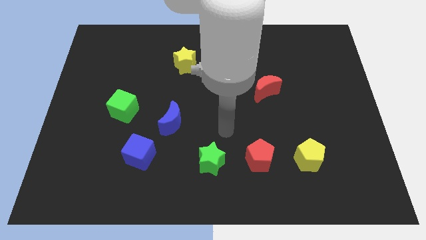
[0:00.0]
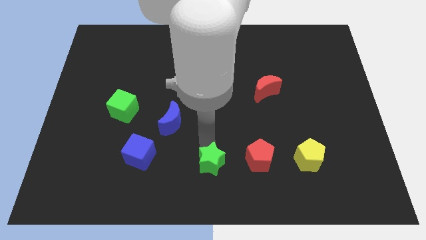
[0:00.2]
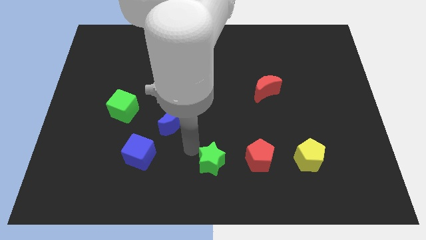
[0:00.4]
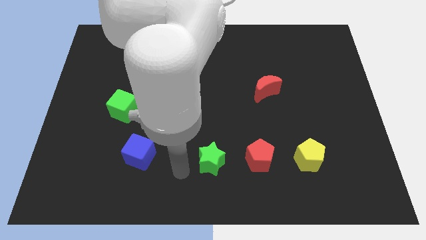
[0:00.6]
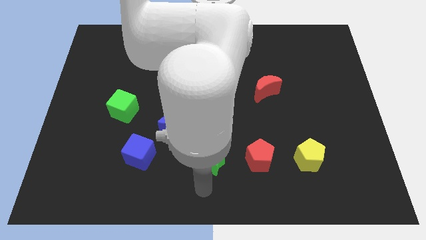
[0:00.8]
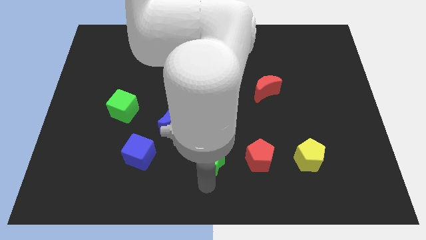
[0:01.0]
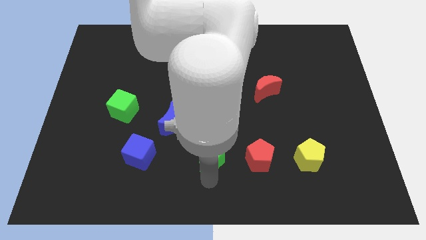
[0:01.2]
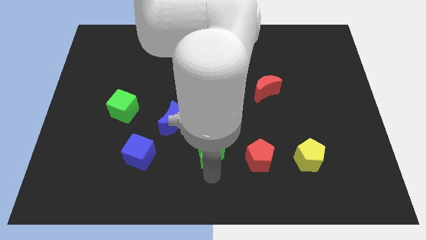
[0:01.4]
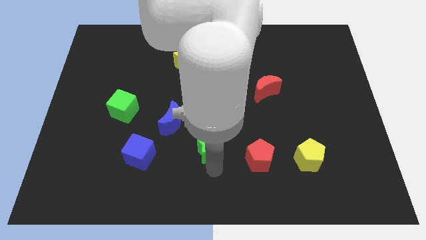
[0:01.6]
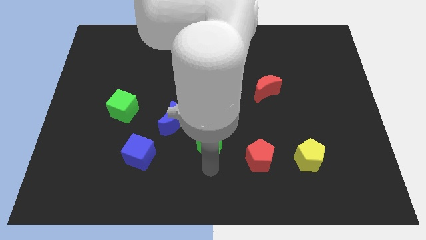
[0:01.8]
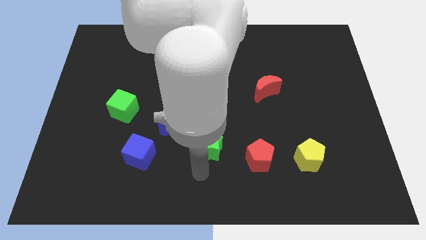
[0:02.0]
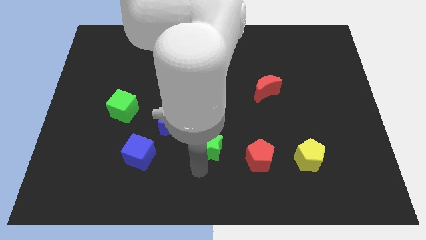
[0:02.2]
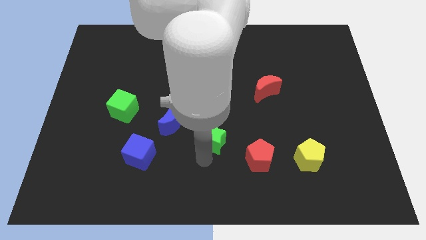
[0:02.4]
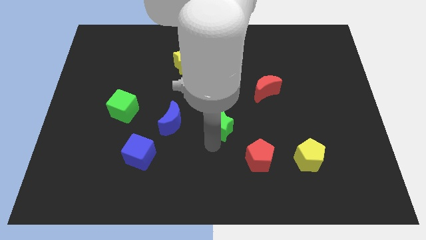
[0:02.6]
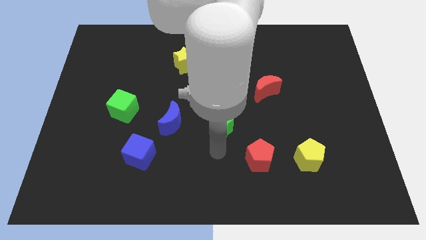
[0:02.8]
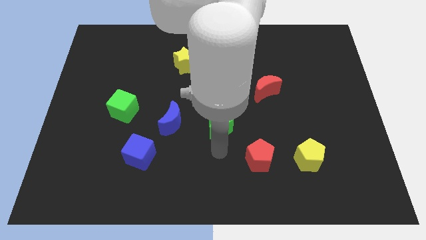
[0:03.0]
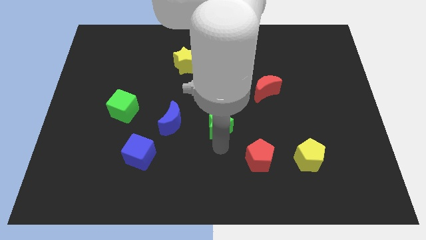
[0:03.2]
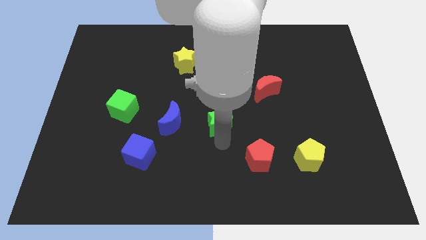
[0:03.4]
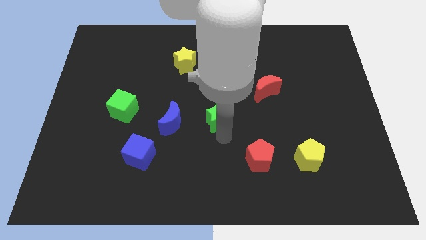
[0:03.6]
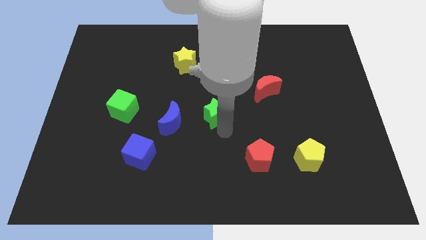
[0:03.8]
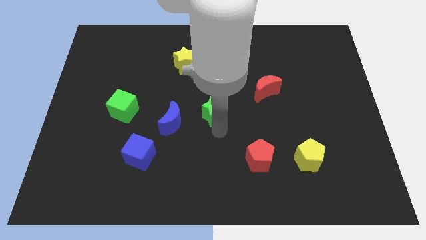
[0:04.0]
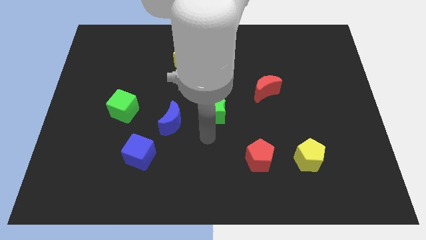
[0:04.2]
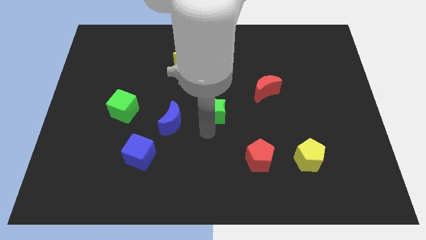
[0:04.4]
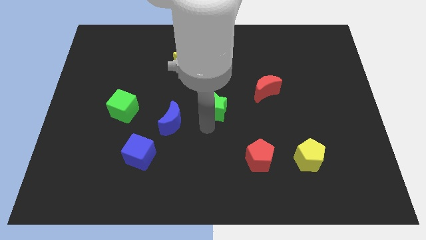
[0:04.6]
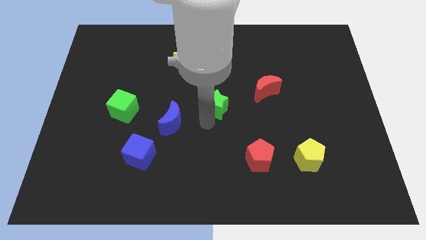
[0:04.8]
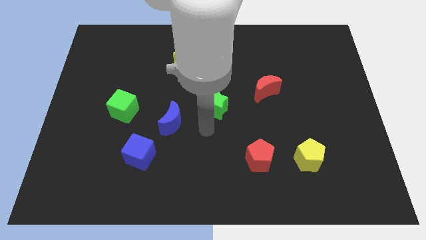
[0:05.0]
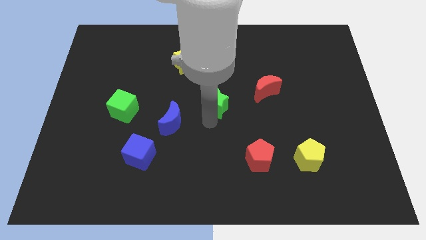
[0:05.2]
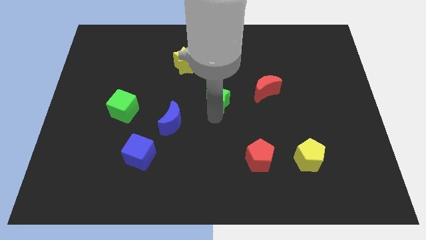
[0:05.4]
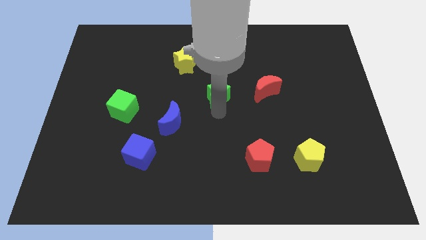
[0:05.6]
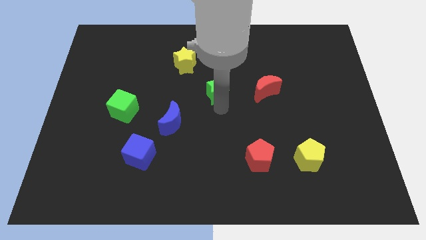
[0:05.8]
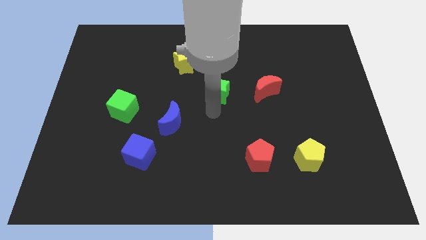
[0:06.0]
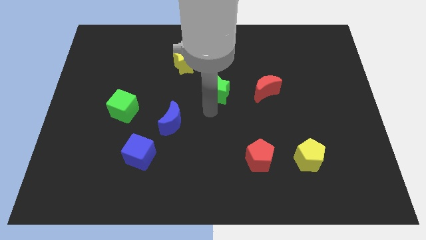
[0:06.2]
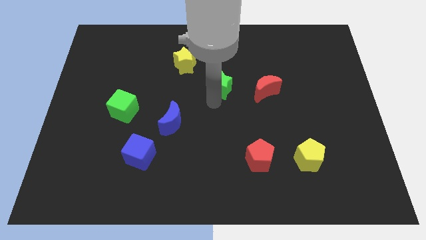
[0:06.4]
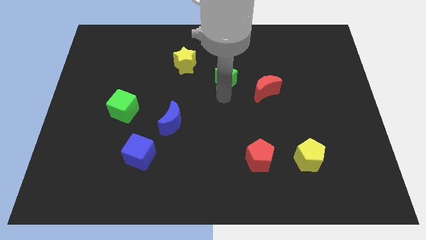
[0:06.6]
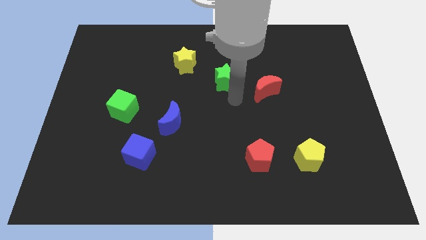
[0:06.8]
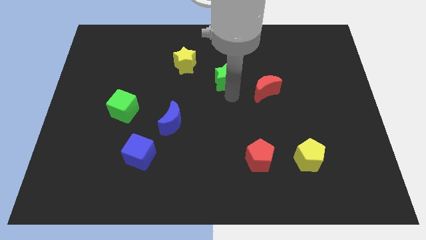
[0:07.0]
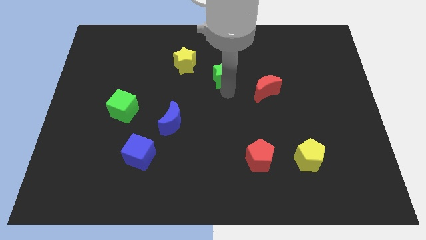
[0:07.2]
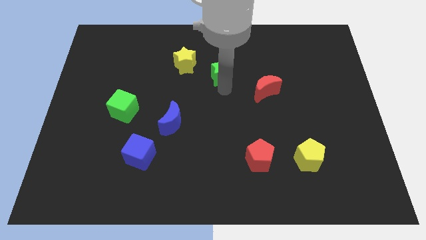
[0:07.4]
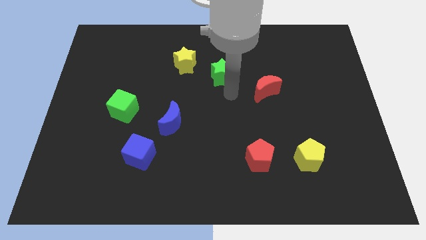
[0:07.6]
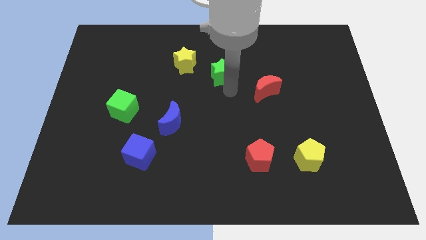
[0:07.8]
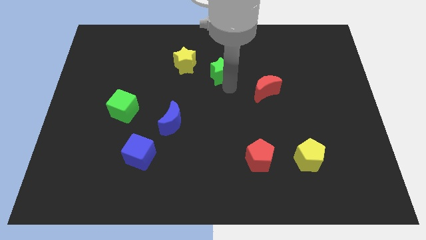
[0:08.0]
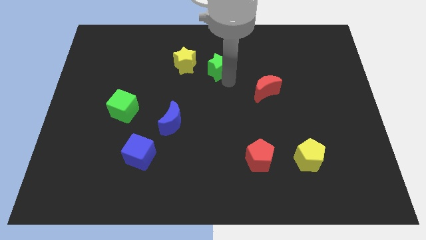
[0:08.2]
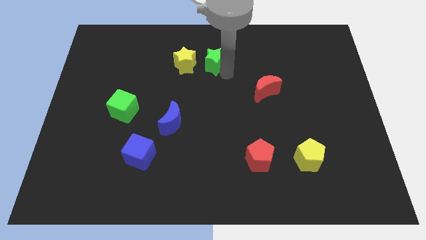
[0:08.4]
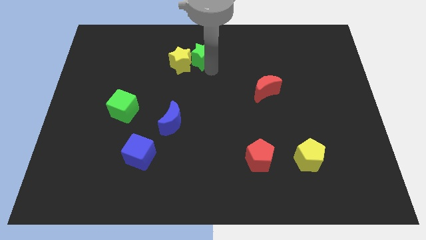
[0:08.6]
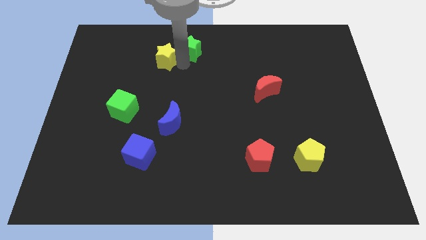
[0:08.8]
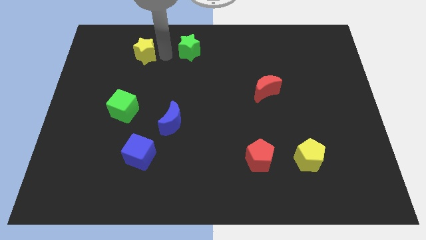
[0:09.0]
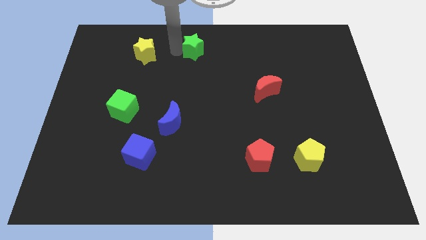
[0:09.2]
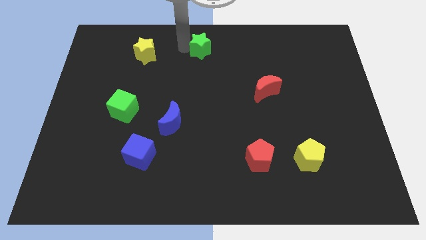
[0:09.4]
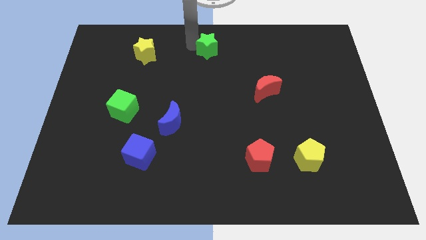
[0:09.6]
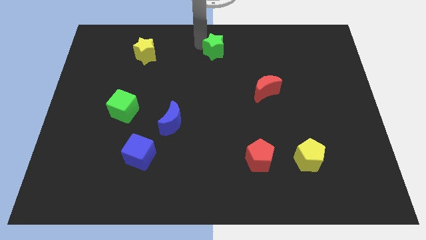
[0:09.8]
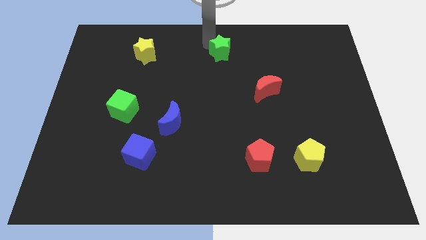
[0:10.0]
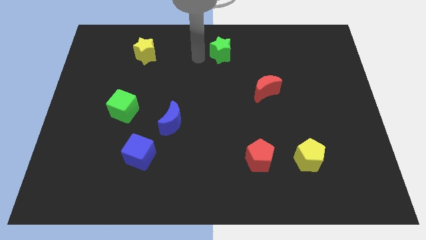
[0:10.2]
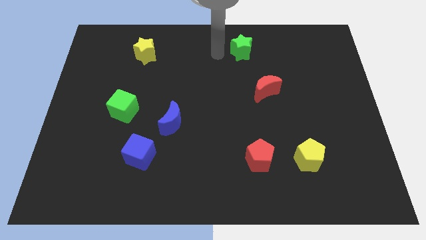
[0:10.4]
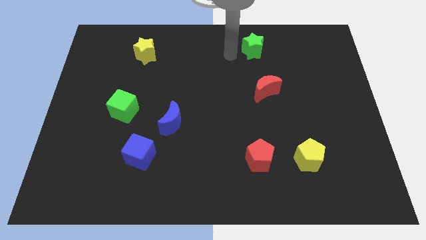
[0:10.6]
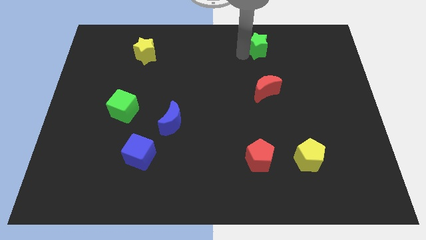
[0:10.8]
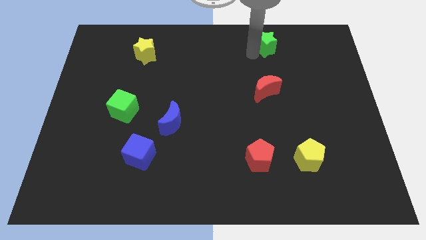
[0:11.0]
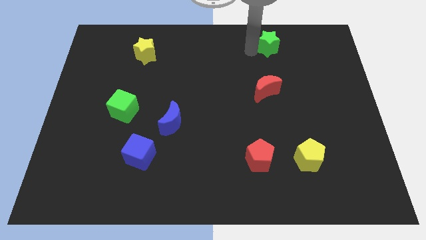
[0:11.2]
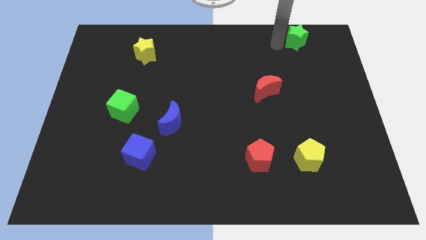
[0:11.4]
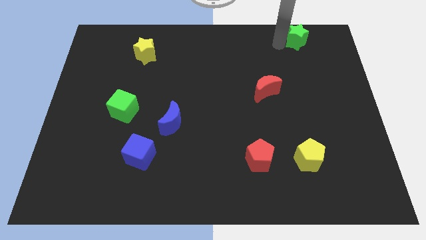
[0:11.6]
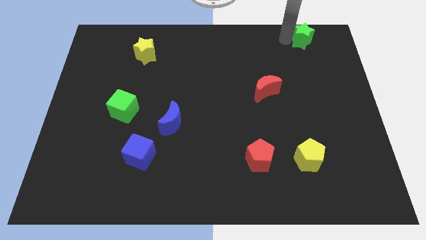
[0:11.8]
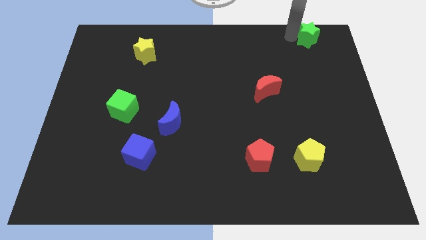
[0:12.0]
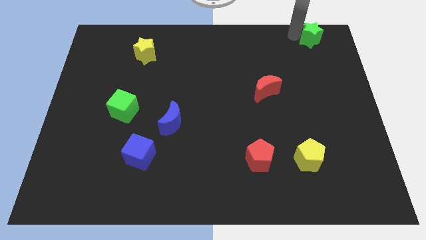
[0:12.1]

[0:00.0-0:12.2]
slide the green star to the top right of the board

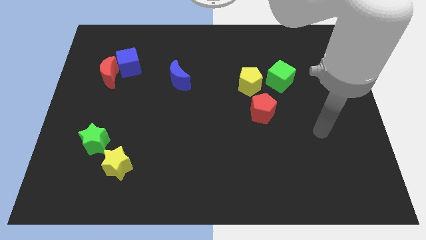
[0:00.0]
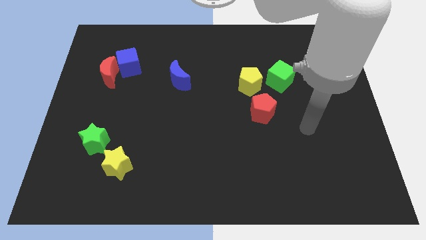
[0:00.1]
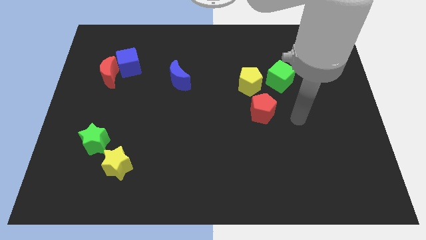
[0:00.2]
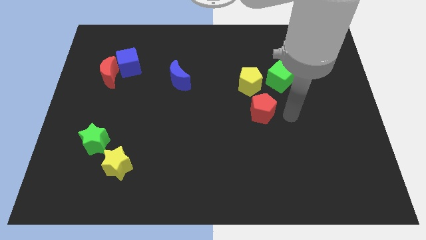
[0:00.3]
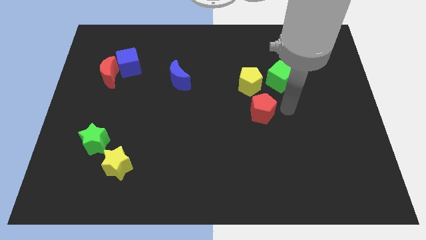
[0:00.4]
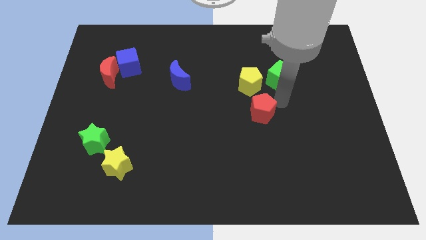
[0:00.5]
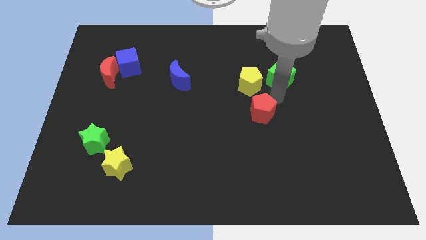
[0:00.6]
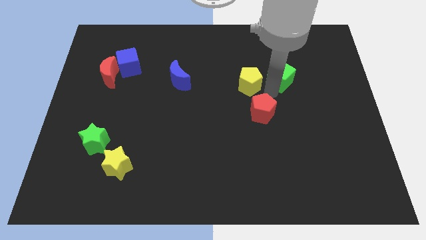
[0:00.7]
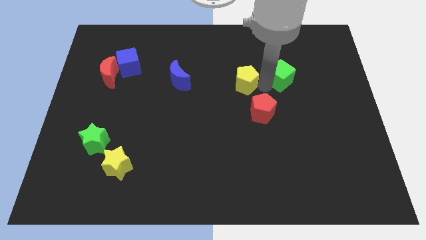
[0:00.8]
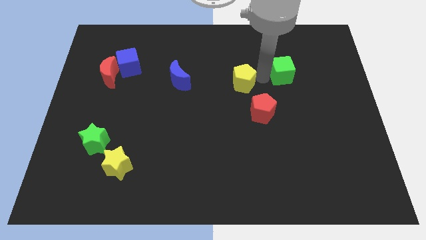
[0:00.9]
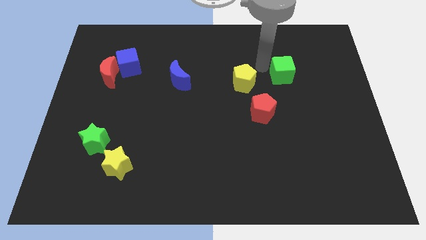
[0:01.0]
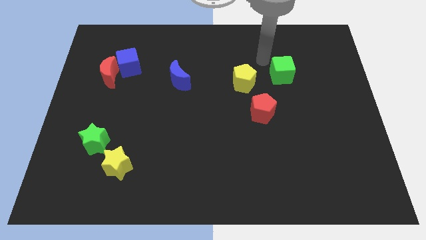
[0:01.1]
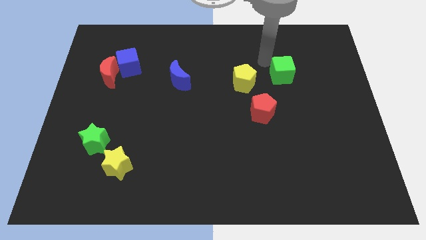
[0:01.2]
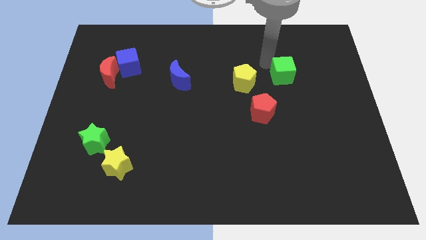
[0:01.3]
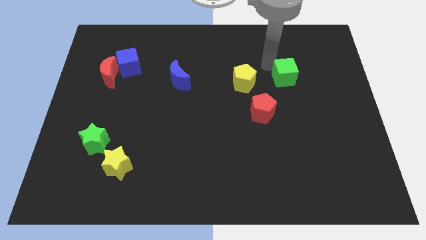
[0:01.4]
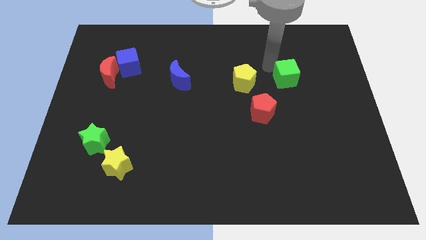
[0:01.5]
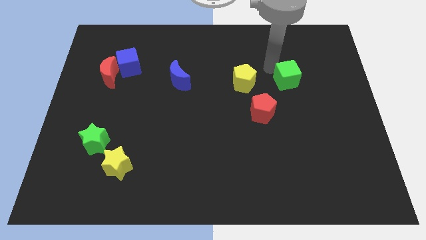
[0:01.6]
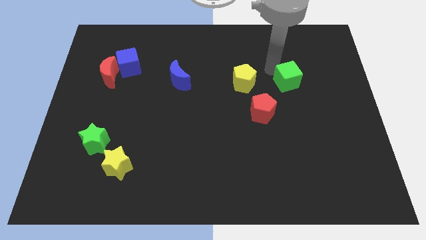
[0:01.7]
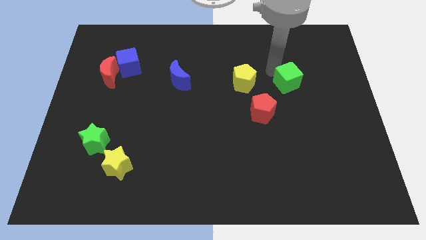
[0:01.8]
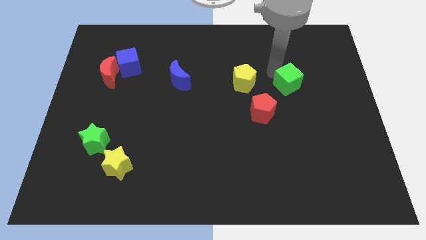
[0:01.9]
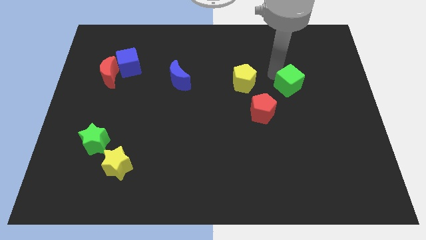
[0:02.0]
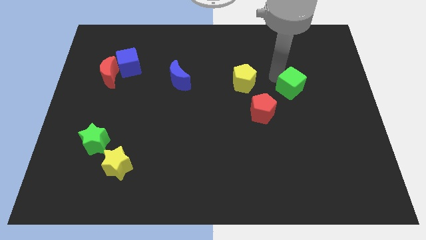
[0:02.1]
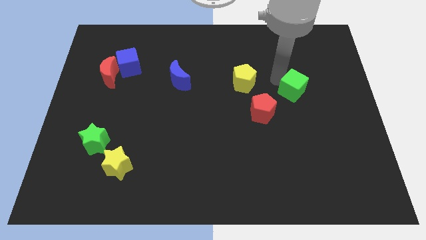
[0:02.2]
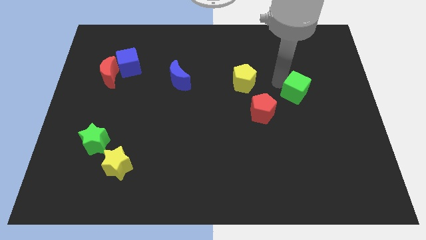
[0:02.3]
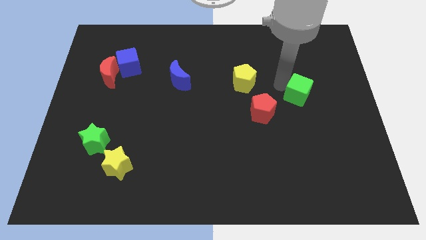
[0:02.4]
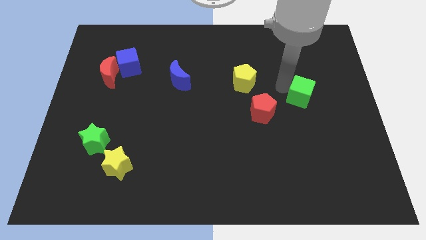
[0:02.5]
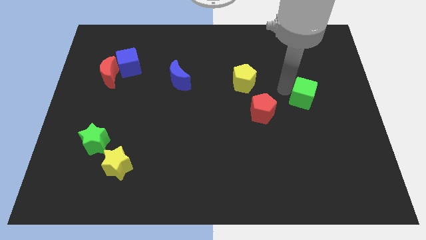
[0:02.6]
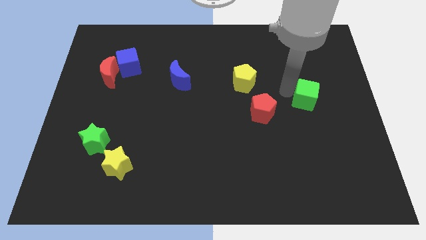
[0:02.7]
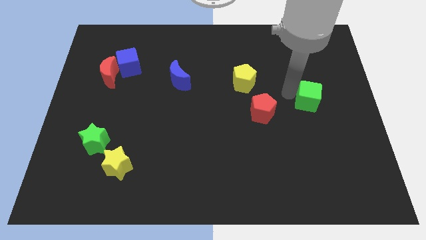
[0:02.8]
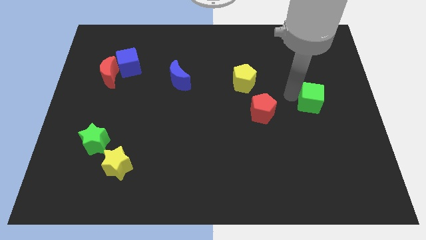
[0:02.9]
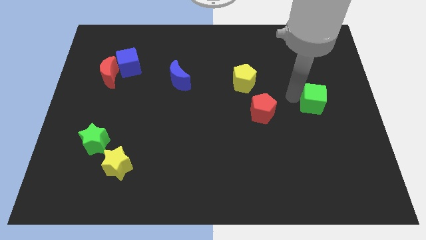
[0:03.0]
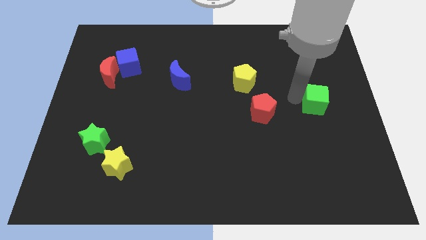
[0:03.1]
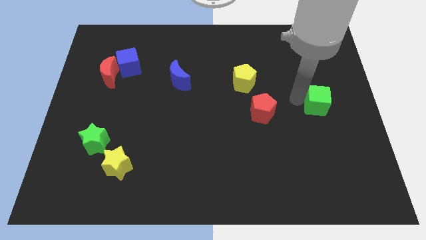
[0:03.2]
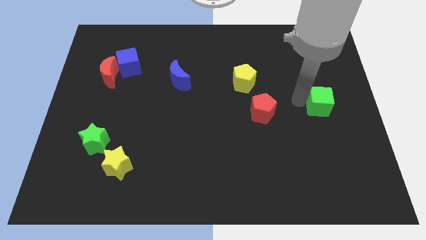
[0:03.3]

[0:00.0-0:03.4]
slide the green cube to the right side of the board
